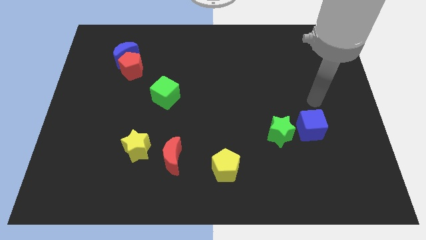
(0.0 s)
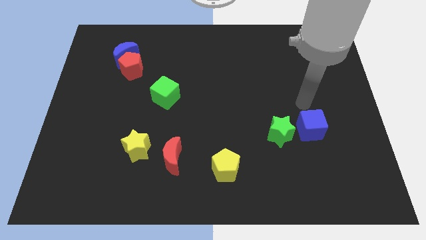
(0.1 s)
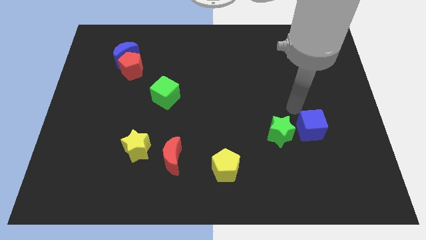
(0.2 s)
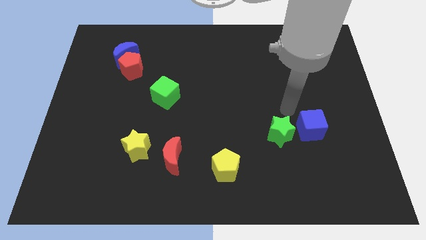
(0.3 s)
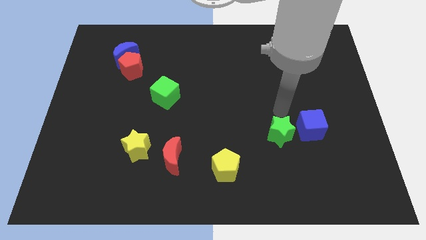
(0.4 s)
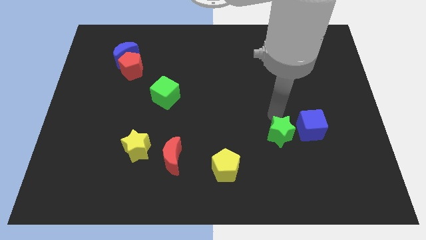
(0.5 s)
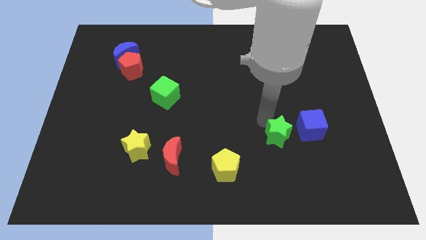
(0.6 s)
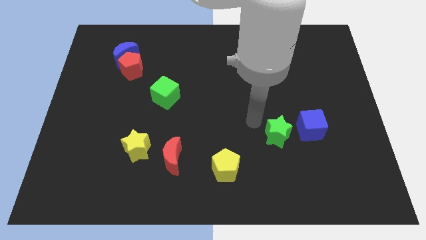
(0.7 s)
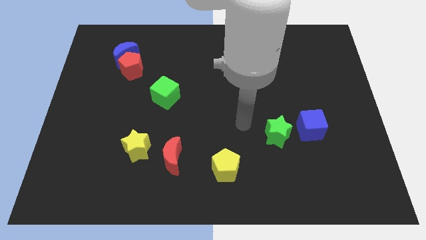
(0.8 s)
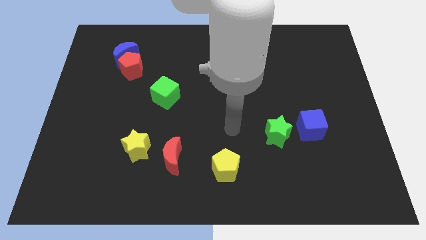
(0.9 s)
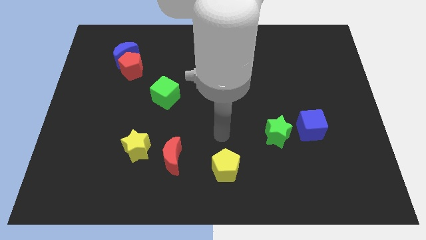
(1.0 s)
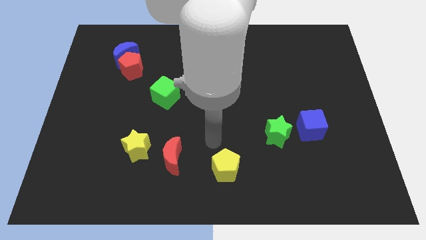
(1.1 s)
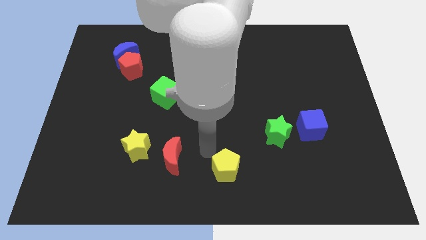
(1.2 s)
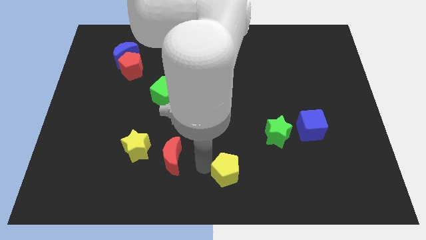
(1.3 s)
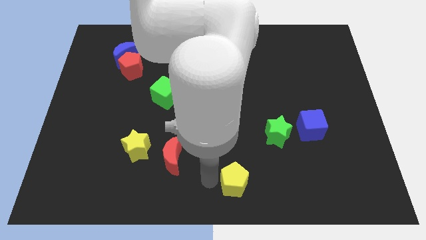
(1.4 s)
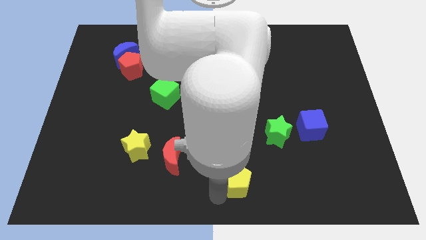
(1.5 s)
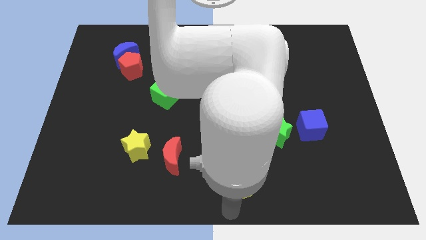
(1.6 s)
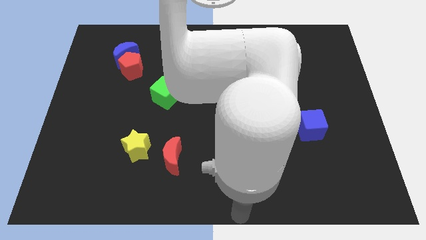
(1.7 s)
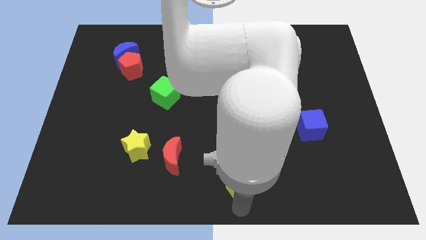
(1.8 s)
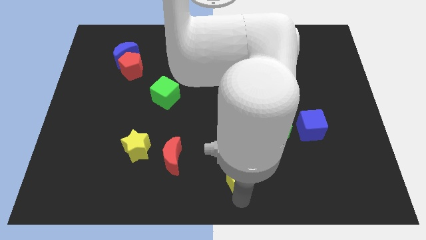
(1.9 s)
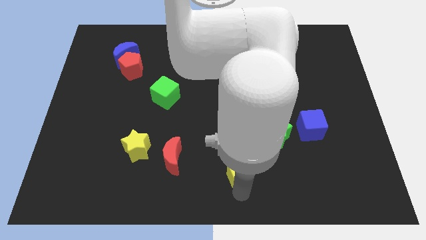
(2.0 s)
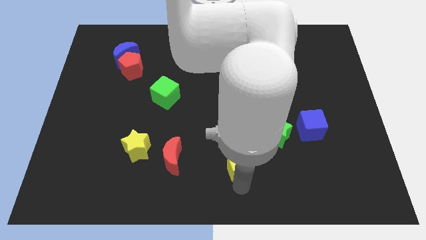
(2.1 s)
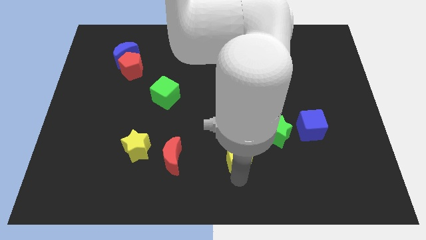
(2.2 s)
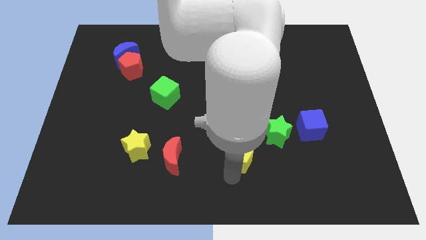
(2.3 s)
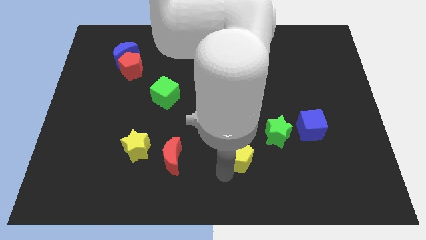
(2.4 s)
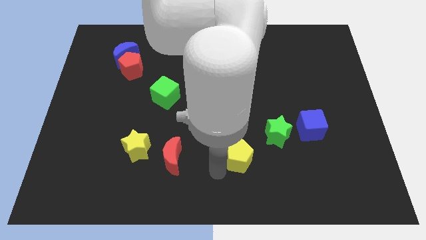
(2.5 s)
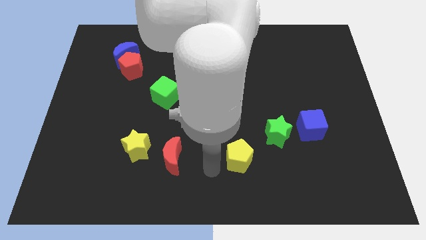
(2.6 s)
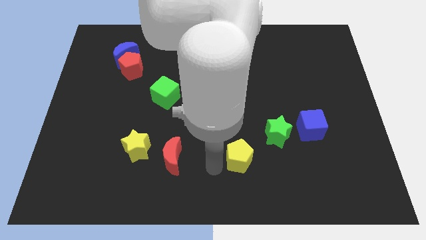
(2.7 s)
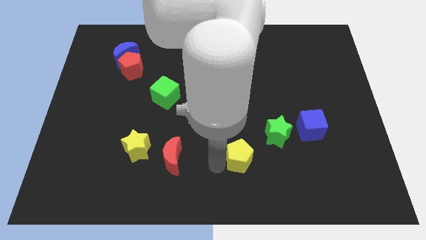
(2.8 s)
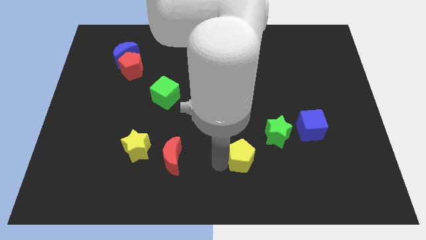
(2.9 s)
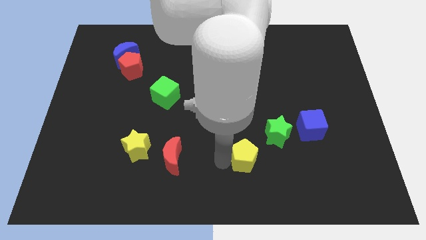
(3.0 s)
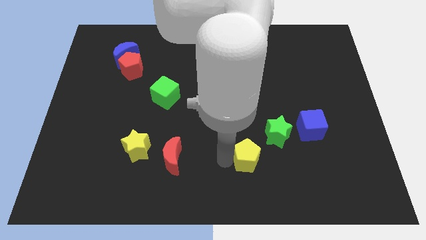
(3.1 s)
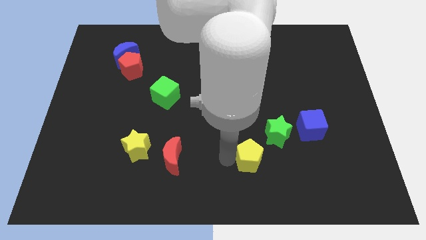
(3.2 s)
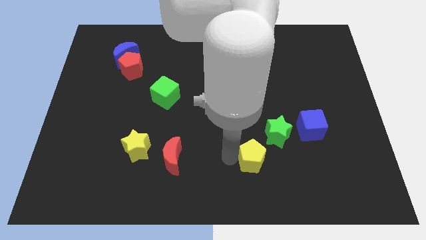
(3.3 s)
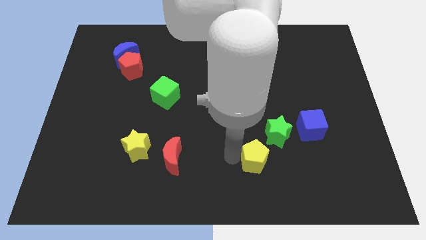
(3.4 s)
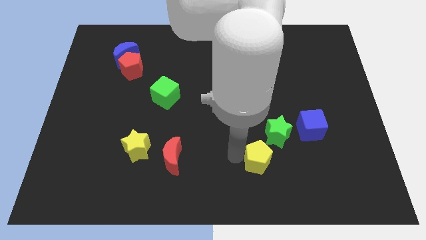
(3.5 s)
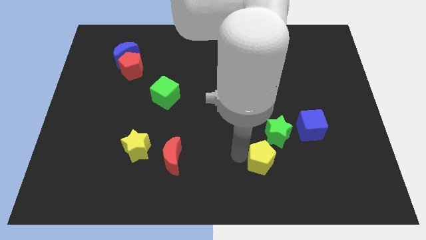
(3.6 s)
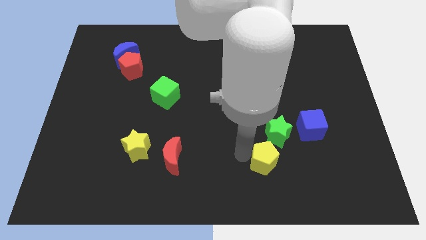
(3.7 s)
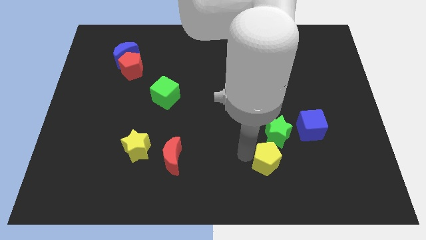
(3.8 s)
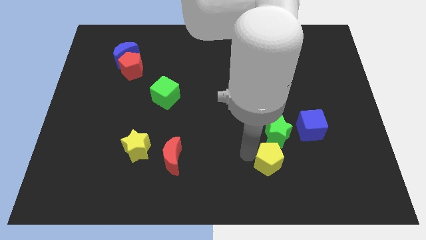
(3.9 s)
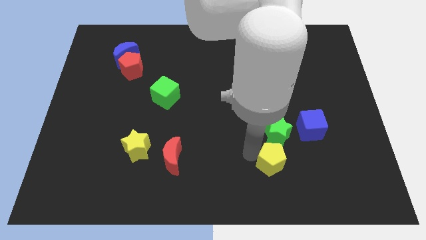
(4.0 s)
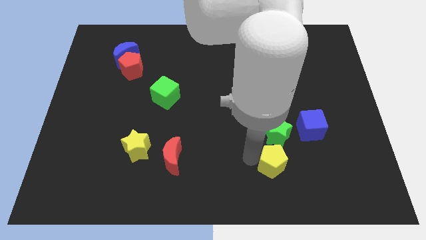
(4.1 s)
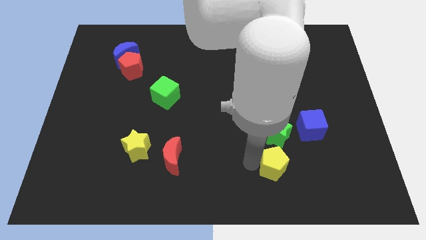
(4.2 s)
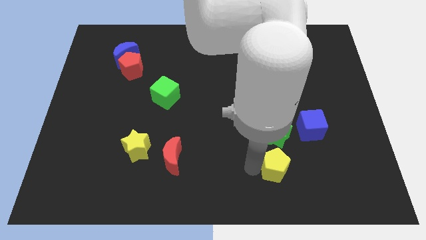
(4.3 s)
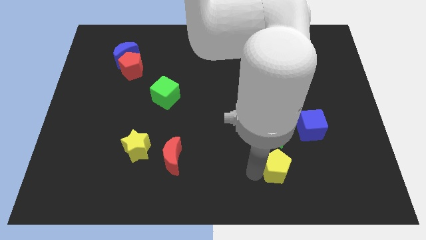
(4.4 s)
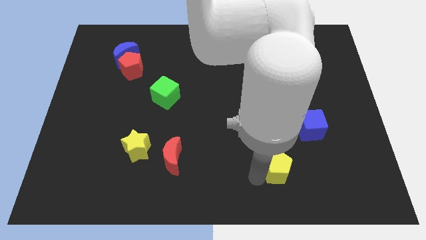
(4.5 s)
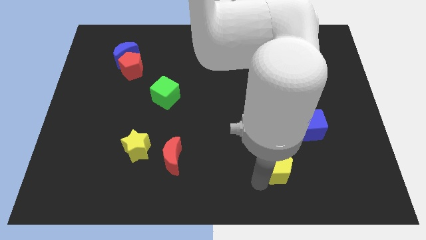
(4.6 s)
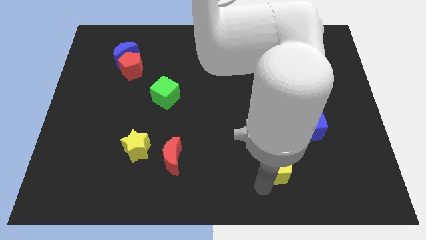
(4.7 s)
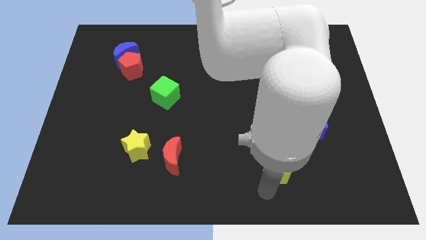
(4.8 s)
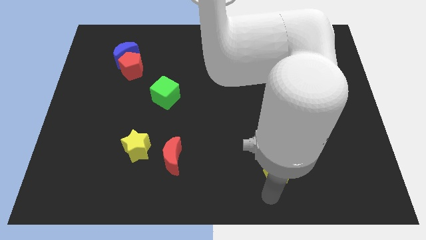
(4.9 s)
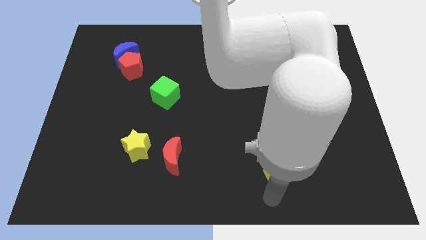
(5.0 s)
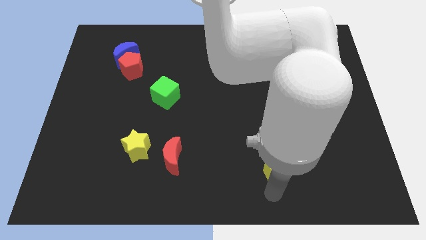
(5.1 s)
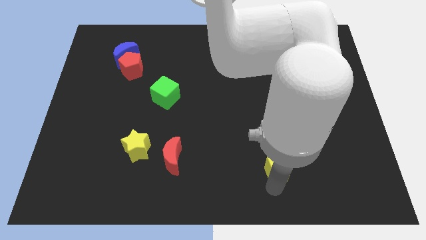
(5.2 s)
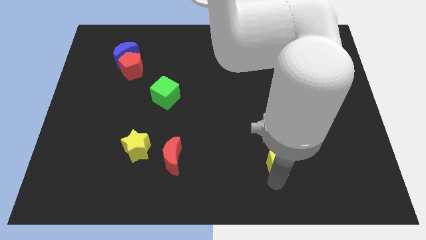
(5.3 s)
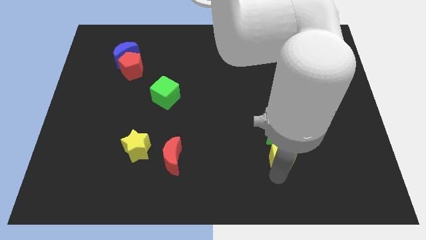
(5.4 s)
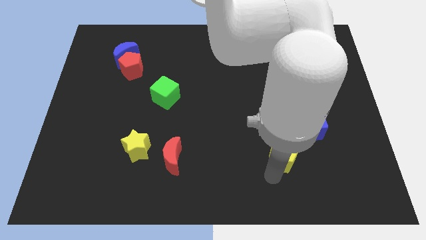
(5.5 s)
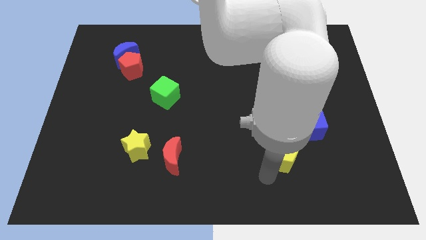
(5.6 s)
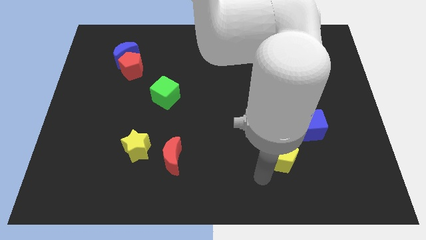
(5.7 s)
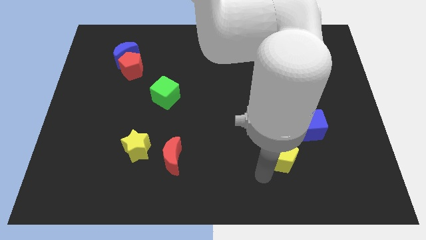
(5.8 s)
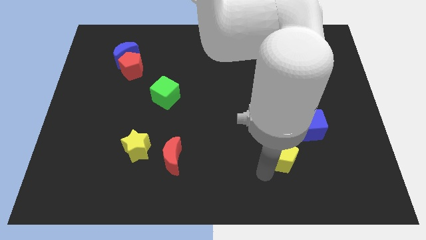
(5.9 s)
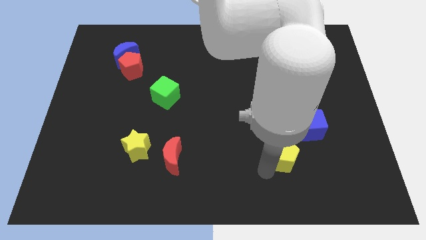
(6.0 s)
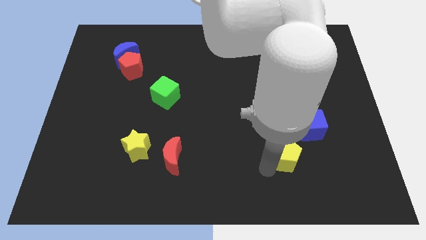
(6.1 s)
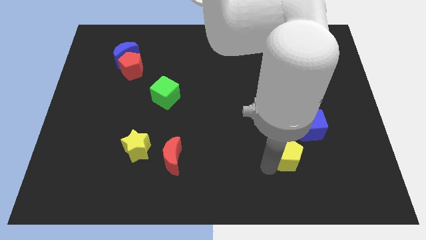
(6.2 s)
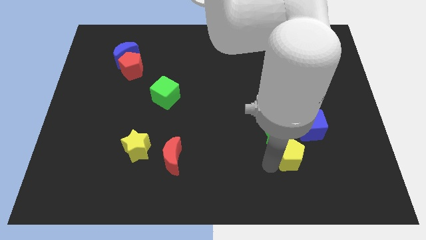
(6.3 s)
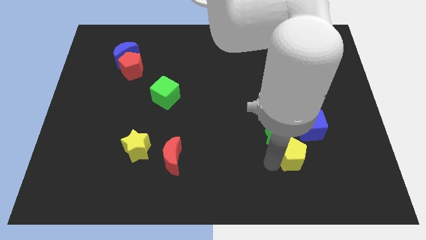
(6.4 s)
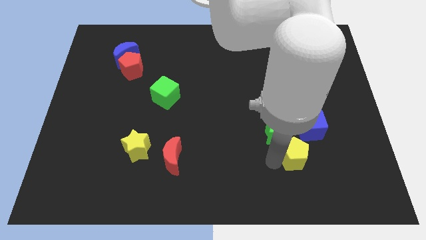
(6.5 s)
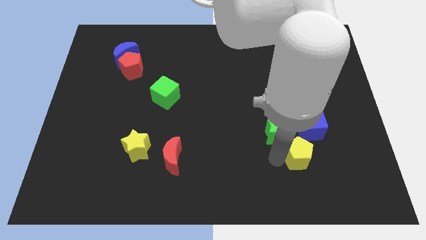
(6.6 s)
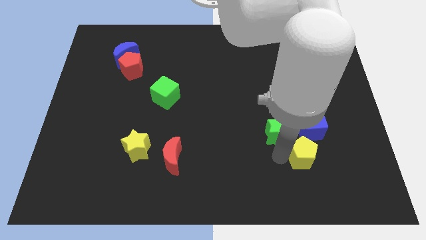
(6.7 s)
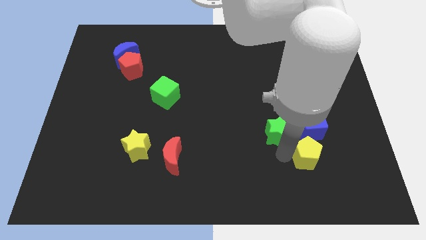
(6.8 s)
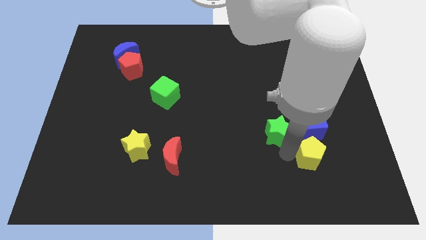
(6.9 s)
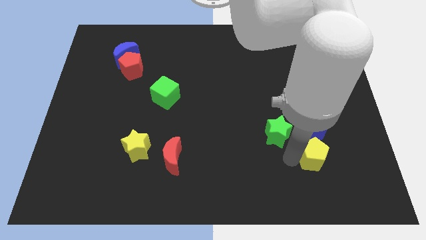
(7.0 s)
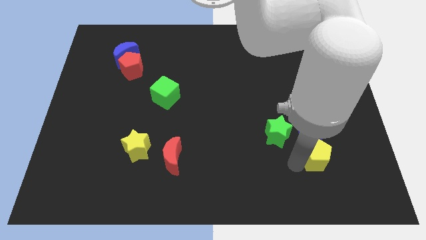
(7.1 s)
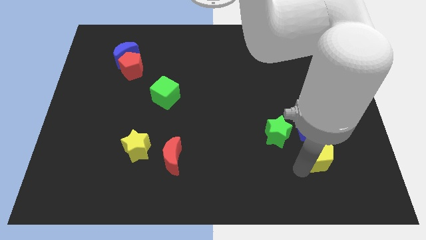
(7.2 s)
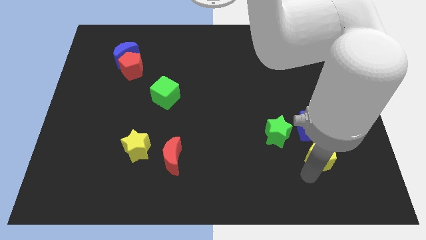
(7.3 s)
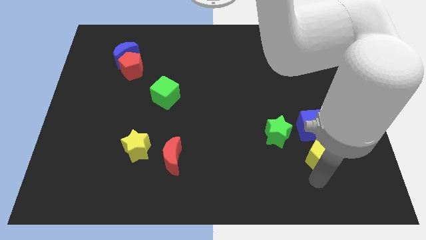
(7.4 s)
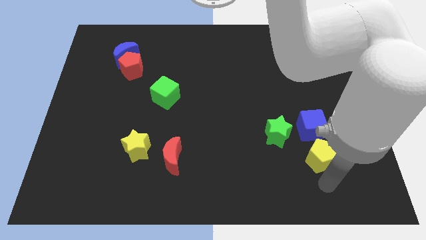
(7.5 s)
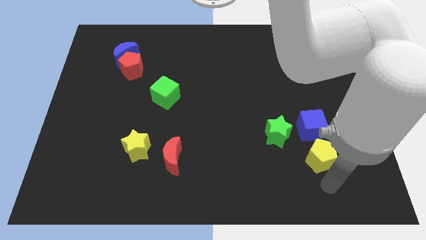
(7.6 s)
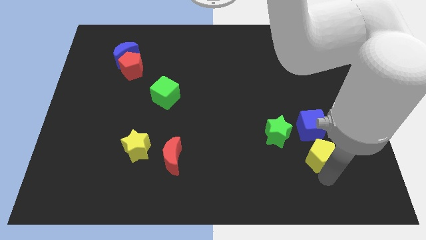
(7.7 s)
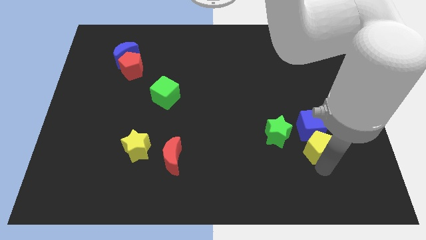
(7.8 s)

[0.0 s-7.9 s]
move the yellow pentagon close to the blue cube
